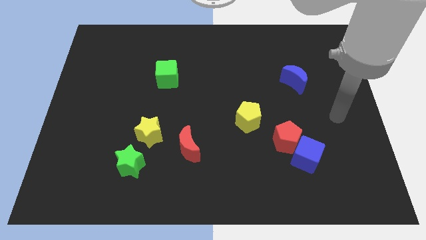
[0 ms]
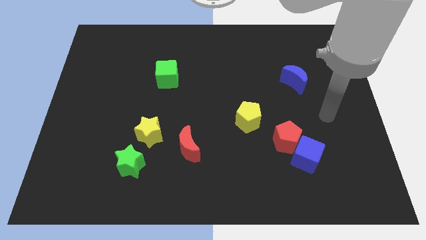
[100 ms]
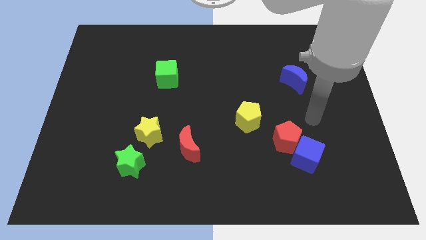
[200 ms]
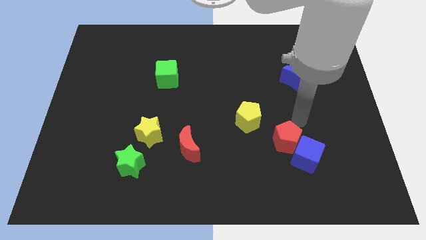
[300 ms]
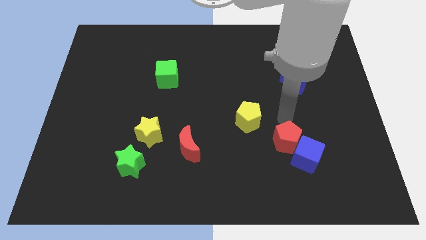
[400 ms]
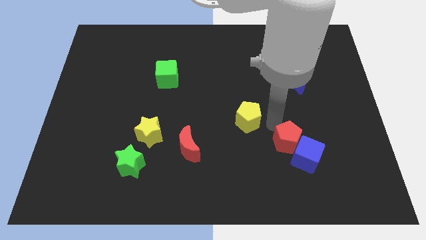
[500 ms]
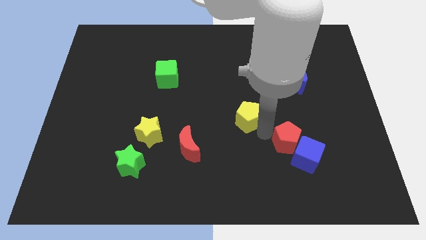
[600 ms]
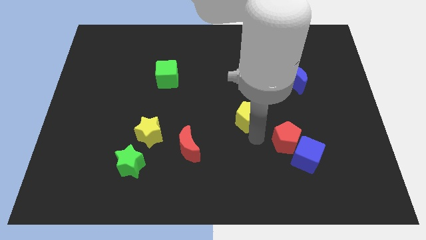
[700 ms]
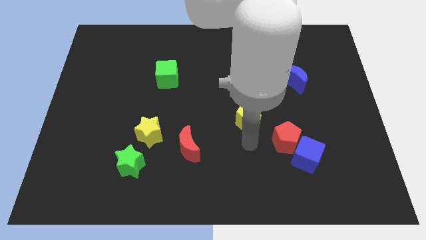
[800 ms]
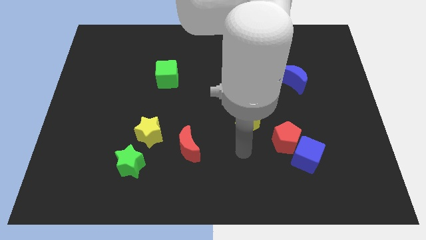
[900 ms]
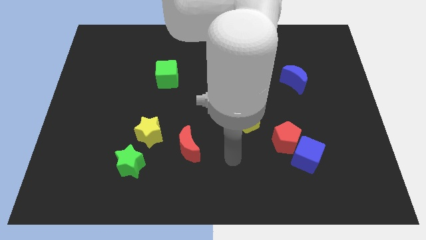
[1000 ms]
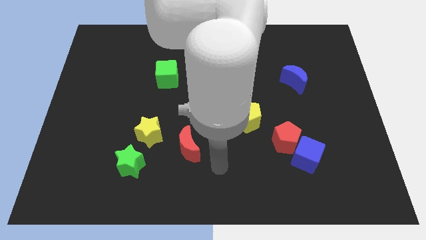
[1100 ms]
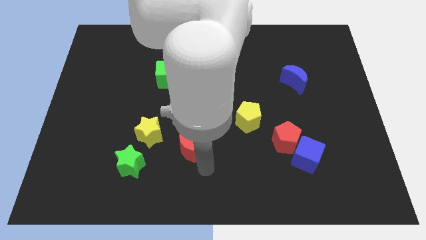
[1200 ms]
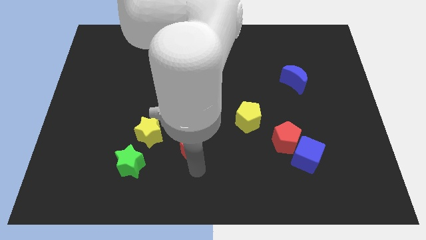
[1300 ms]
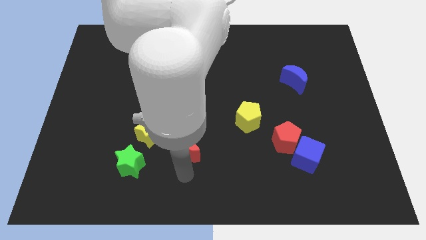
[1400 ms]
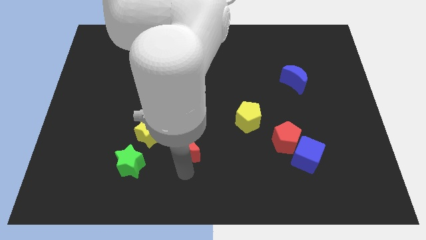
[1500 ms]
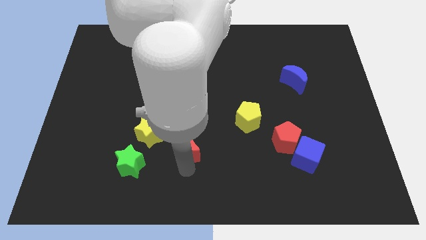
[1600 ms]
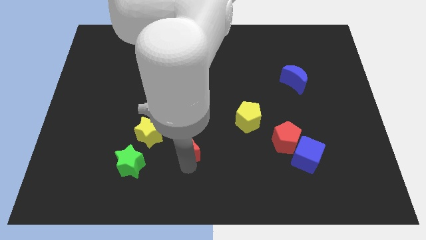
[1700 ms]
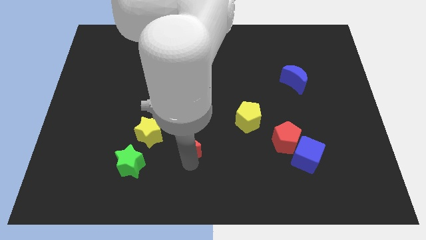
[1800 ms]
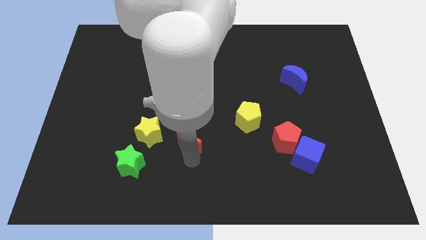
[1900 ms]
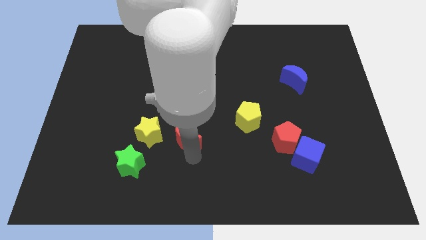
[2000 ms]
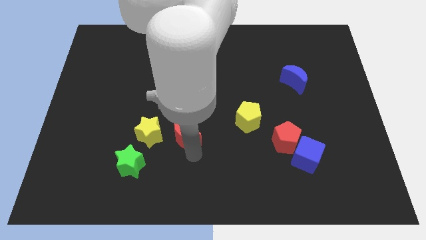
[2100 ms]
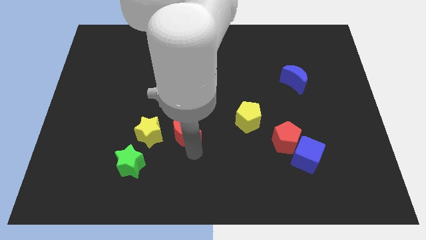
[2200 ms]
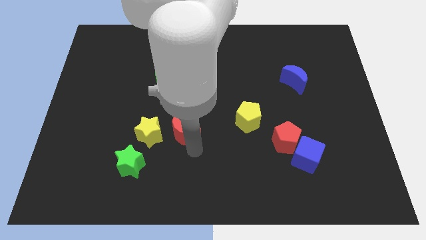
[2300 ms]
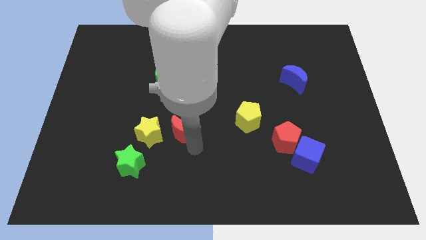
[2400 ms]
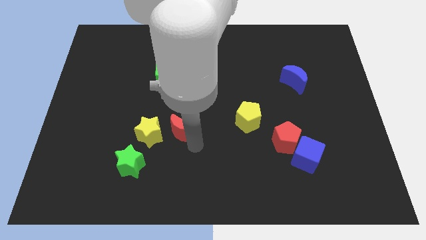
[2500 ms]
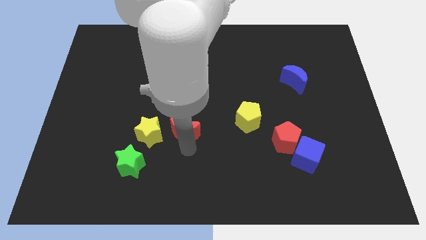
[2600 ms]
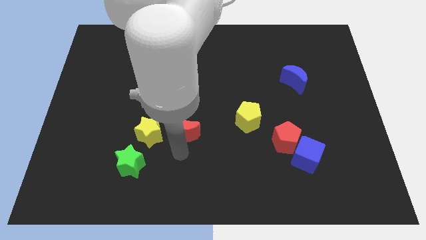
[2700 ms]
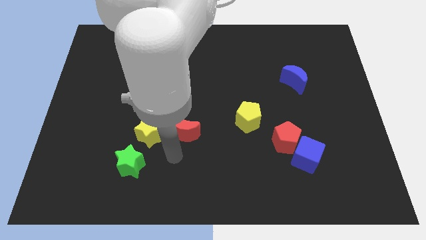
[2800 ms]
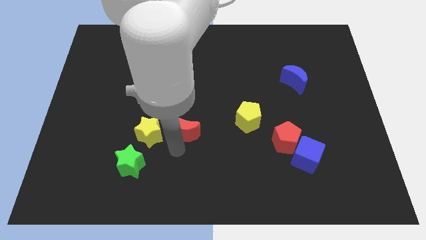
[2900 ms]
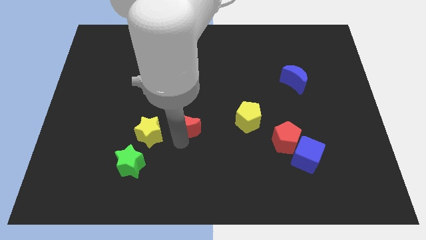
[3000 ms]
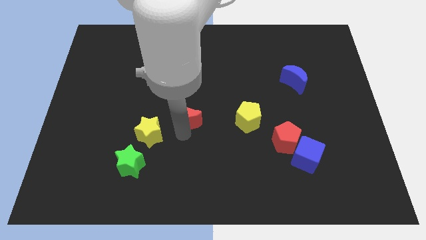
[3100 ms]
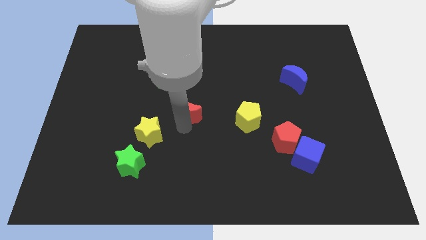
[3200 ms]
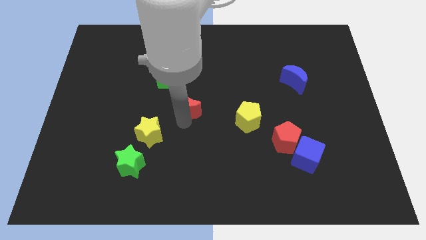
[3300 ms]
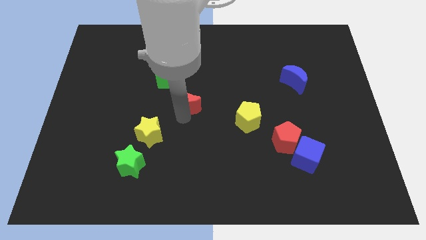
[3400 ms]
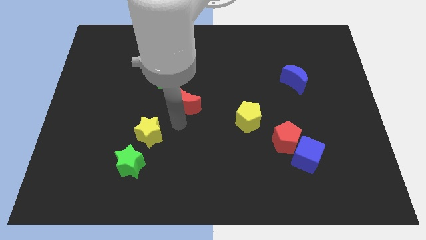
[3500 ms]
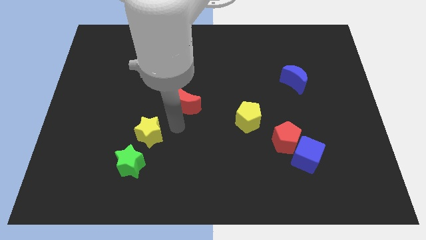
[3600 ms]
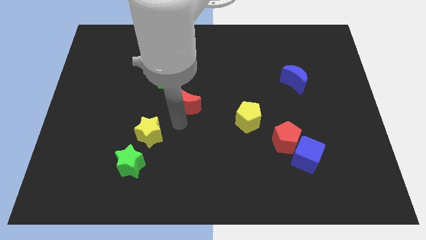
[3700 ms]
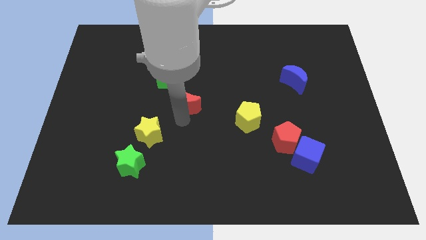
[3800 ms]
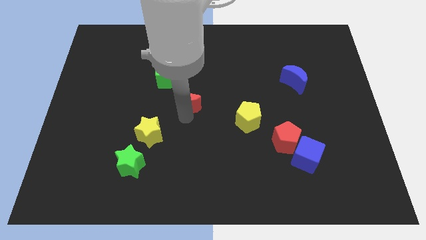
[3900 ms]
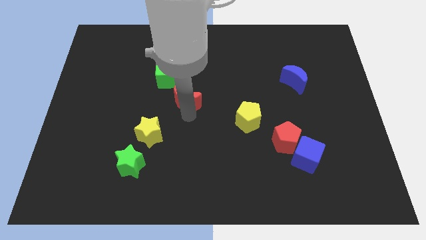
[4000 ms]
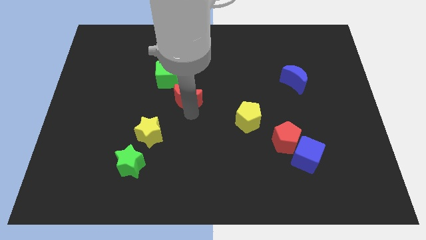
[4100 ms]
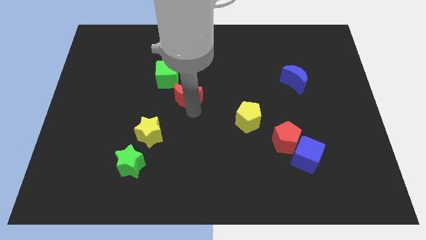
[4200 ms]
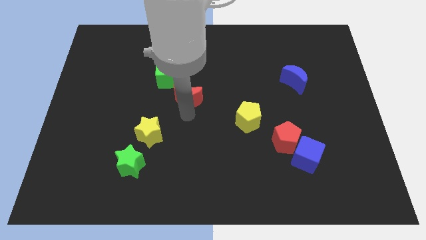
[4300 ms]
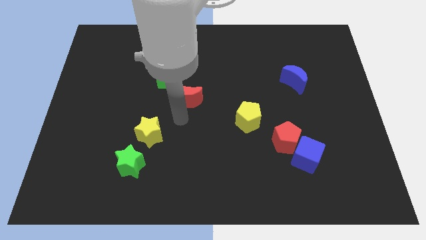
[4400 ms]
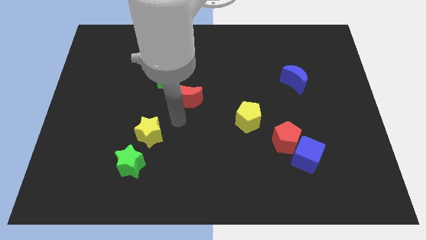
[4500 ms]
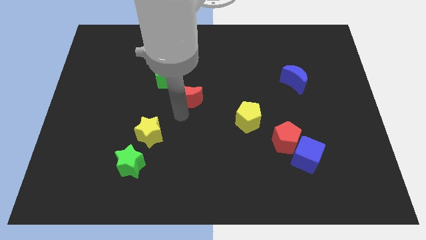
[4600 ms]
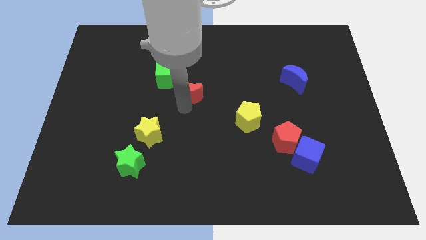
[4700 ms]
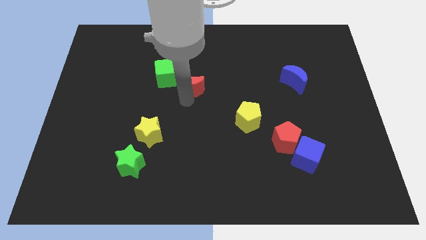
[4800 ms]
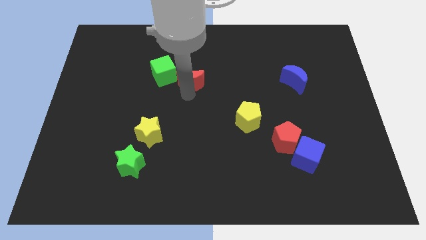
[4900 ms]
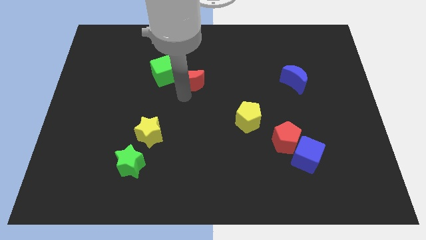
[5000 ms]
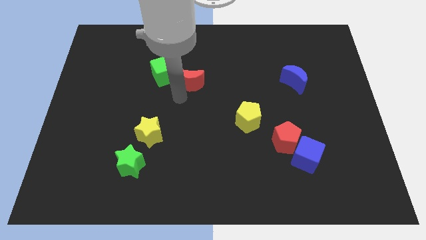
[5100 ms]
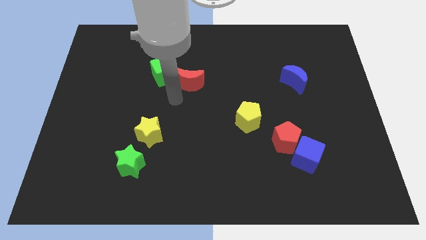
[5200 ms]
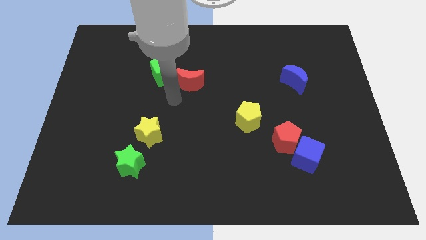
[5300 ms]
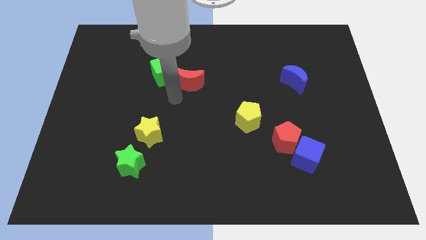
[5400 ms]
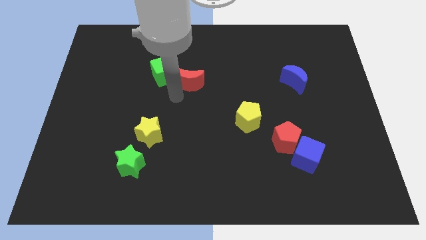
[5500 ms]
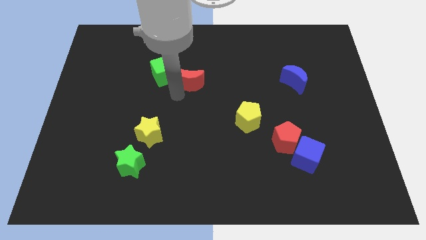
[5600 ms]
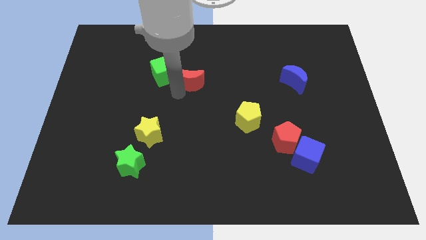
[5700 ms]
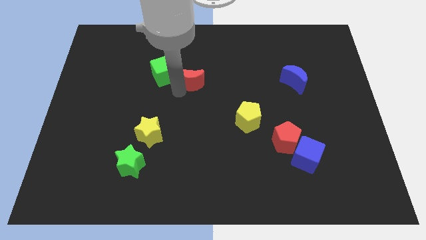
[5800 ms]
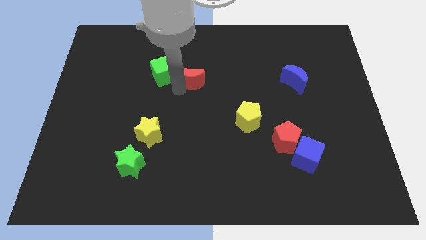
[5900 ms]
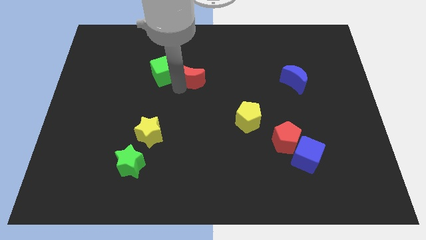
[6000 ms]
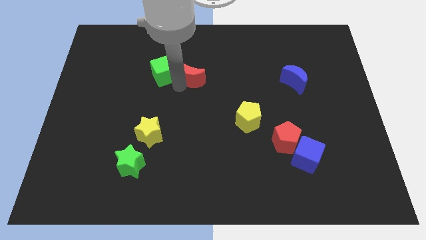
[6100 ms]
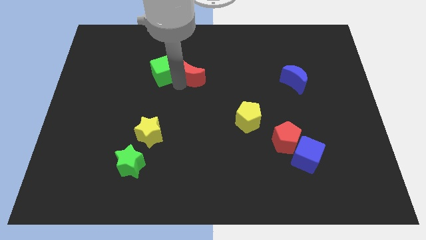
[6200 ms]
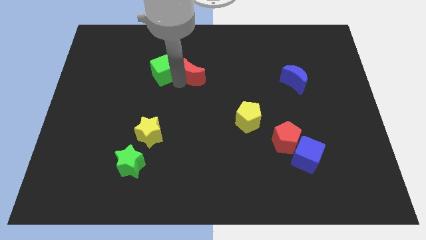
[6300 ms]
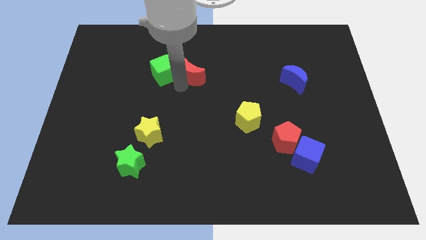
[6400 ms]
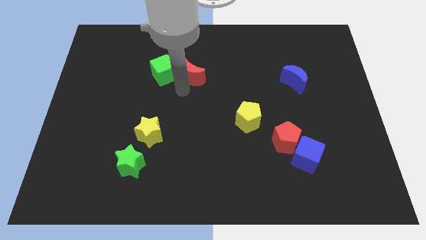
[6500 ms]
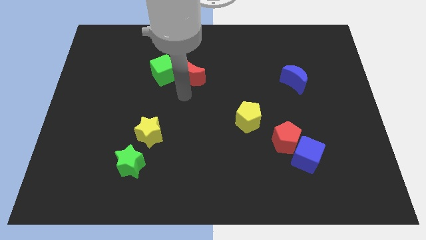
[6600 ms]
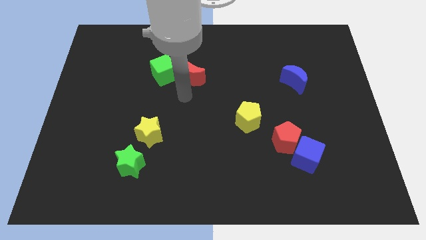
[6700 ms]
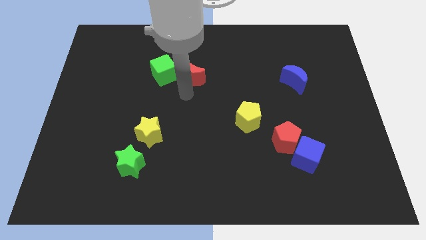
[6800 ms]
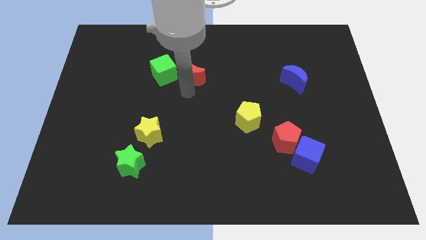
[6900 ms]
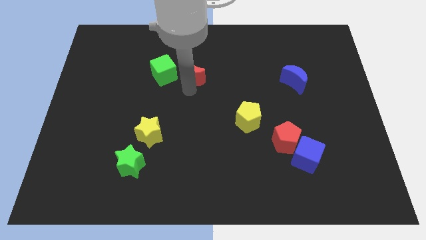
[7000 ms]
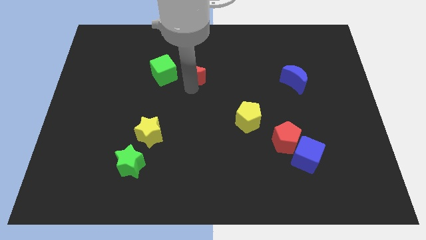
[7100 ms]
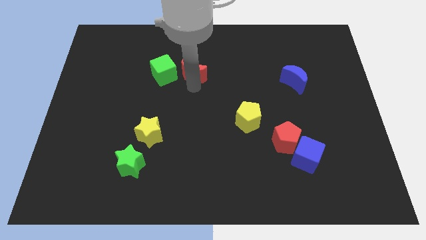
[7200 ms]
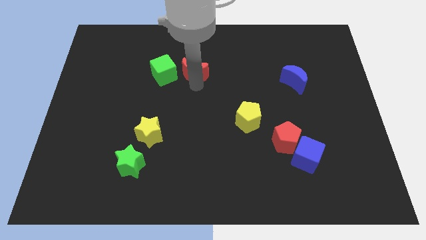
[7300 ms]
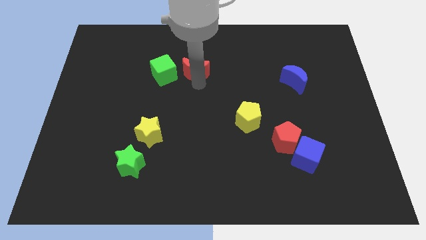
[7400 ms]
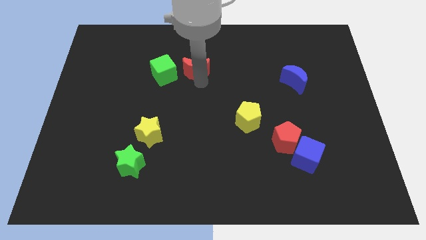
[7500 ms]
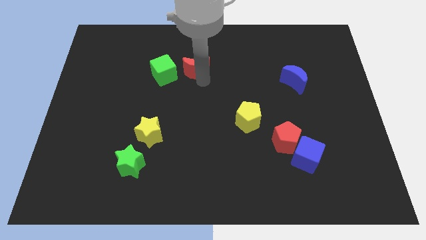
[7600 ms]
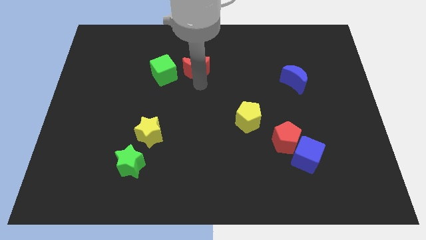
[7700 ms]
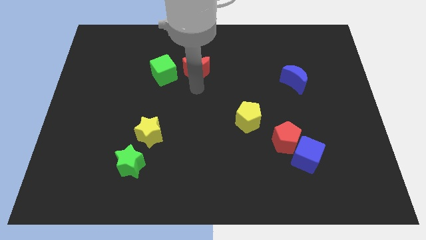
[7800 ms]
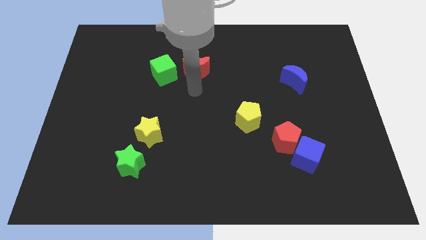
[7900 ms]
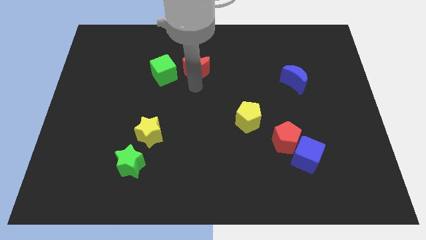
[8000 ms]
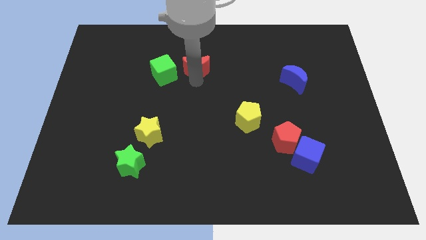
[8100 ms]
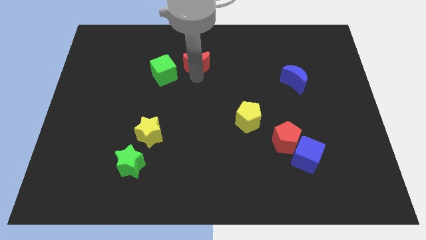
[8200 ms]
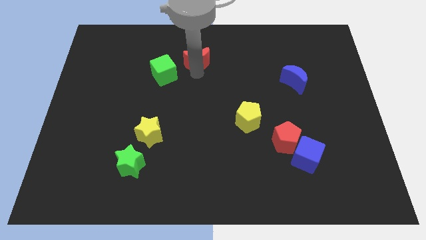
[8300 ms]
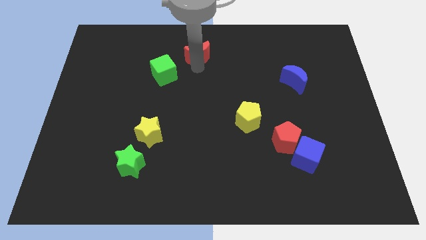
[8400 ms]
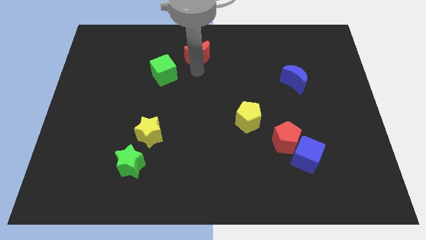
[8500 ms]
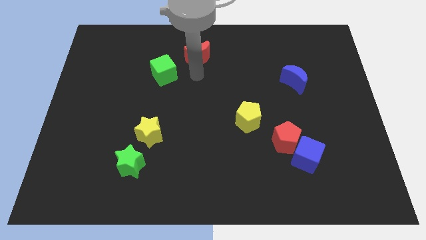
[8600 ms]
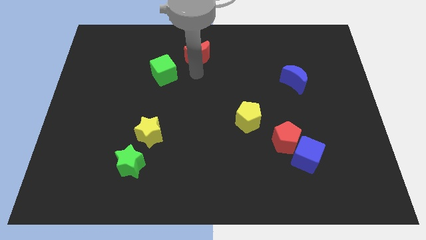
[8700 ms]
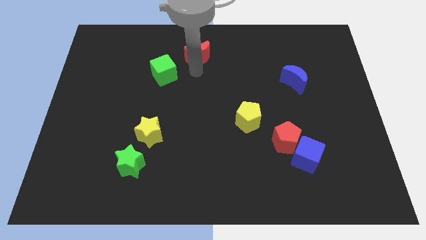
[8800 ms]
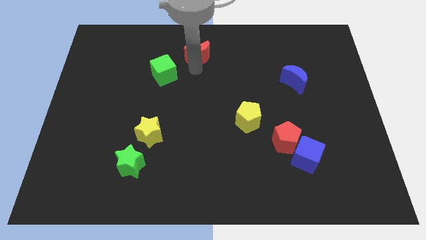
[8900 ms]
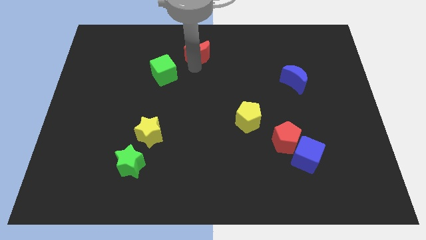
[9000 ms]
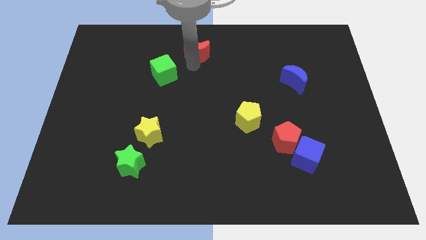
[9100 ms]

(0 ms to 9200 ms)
move the red moon to the towards your base
